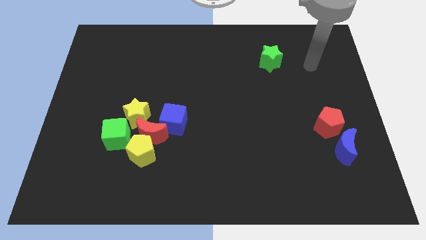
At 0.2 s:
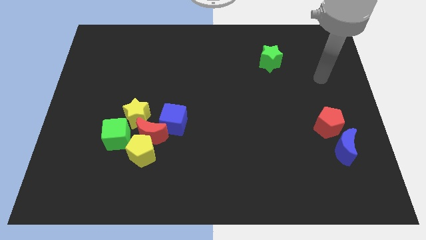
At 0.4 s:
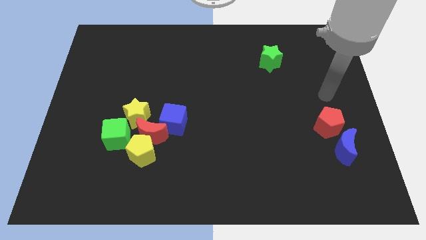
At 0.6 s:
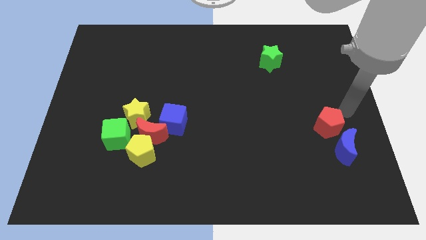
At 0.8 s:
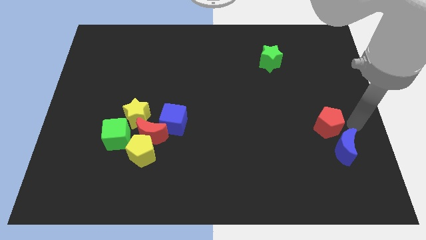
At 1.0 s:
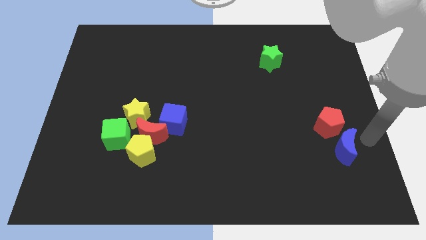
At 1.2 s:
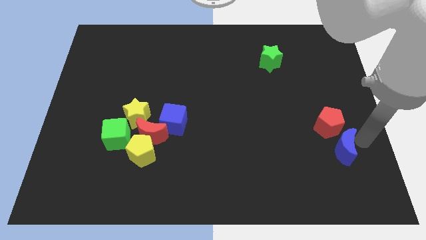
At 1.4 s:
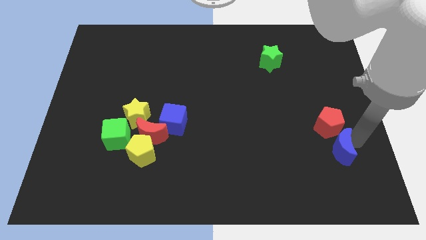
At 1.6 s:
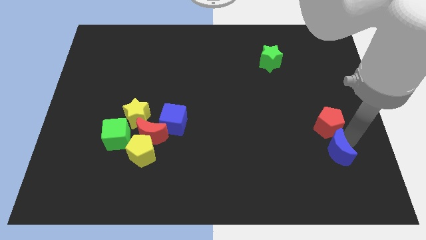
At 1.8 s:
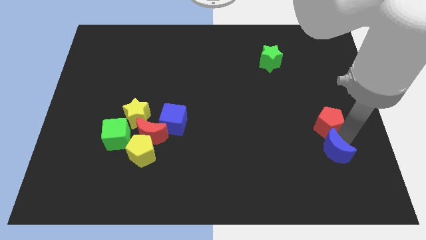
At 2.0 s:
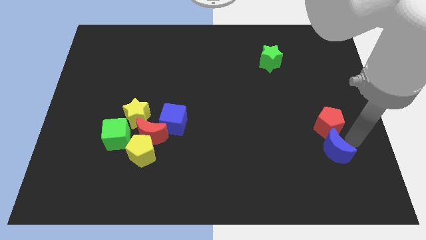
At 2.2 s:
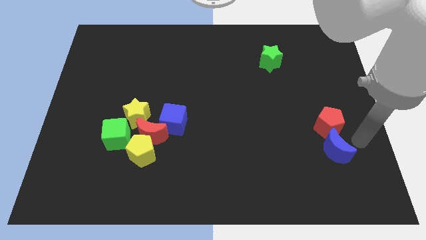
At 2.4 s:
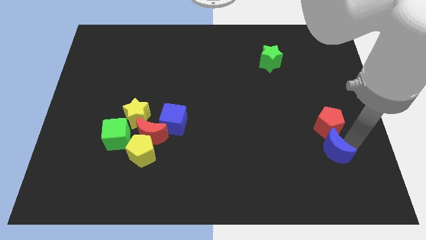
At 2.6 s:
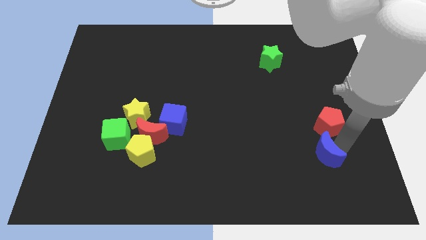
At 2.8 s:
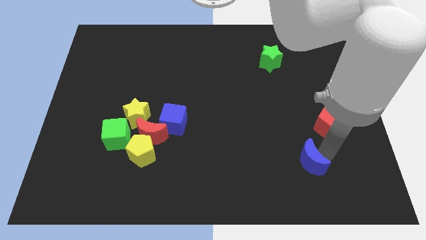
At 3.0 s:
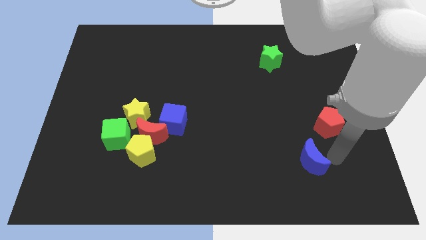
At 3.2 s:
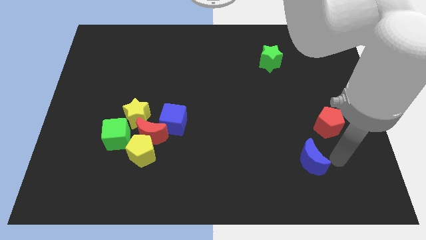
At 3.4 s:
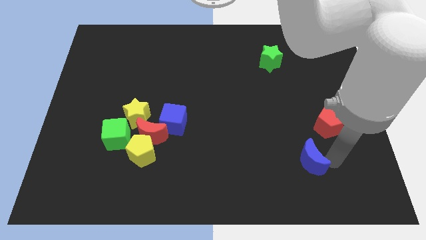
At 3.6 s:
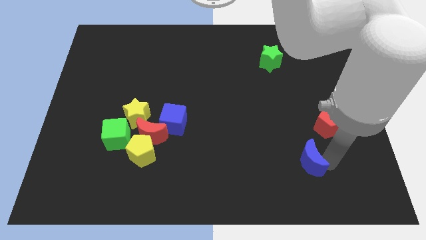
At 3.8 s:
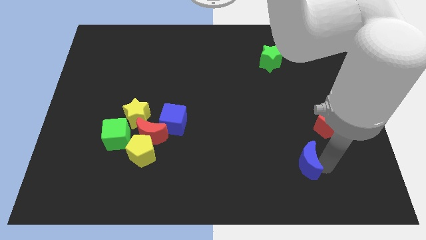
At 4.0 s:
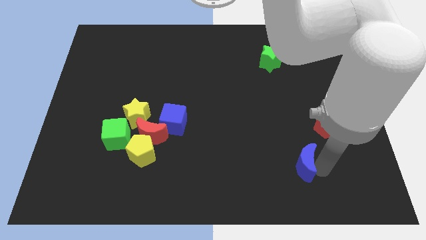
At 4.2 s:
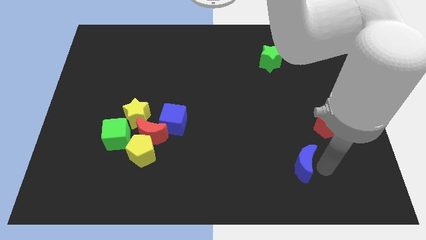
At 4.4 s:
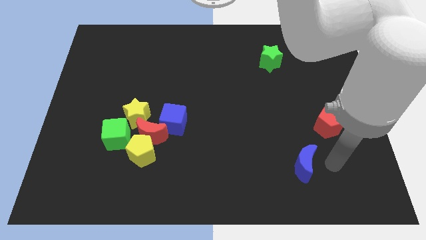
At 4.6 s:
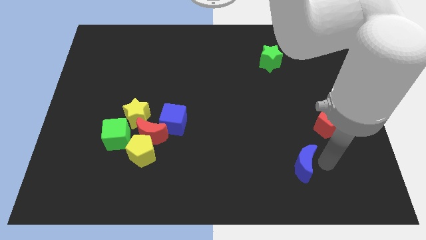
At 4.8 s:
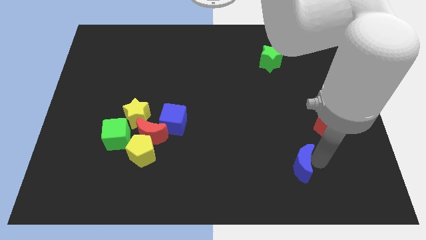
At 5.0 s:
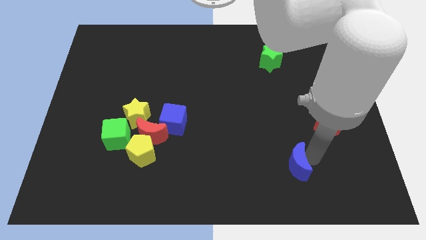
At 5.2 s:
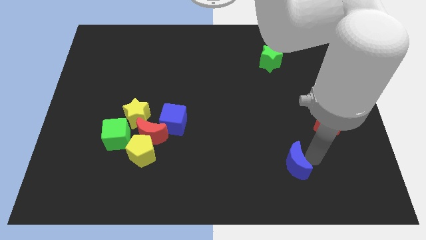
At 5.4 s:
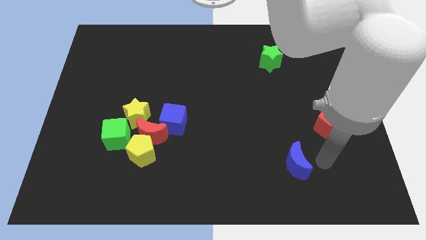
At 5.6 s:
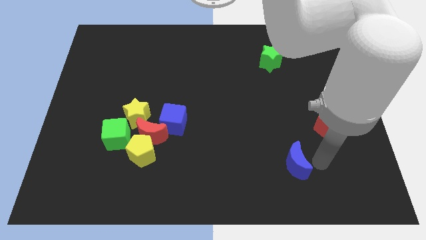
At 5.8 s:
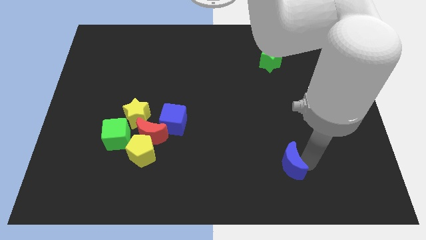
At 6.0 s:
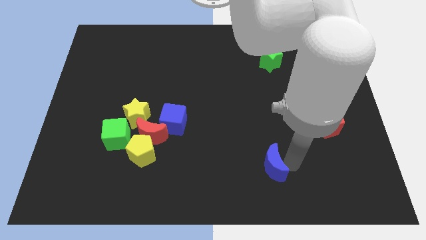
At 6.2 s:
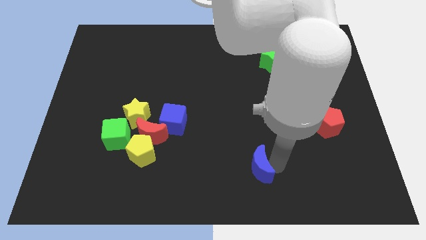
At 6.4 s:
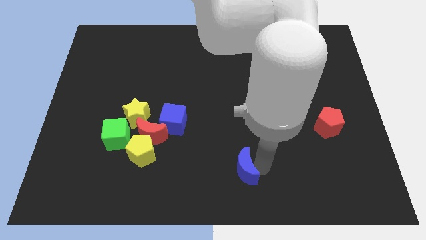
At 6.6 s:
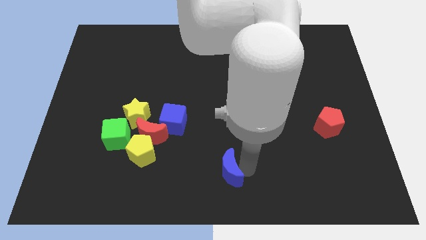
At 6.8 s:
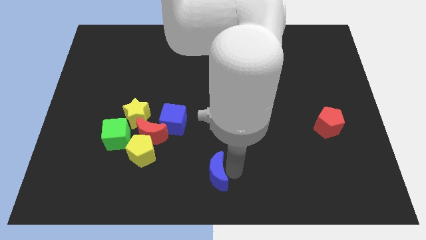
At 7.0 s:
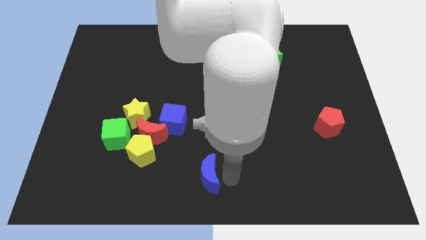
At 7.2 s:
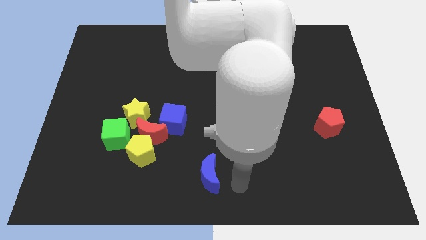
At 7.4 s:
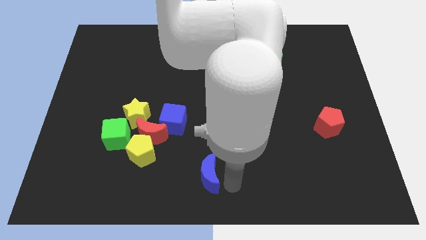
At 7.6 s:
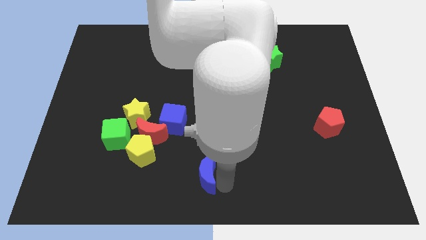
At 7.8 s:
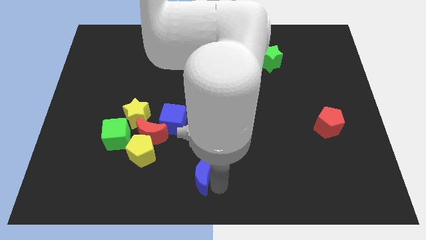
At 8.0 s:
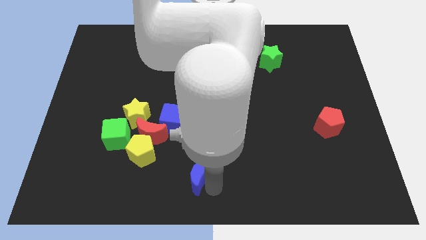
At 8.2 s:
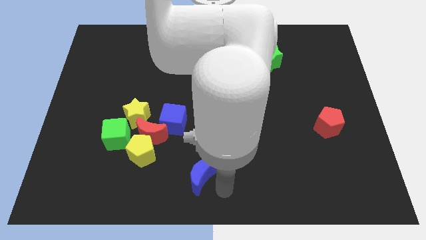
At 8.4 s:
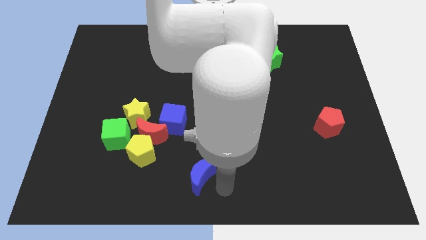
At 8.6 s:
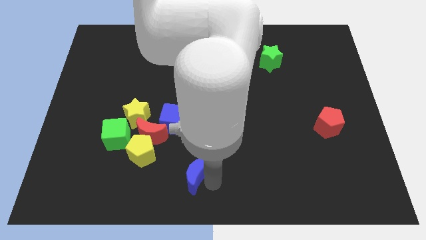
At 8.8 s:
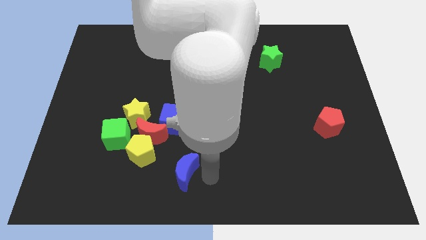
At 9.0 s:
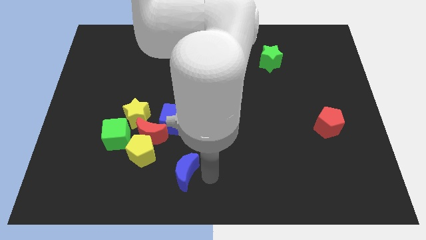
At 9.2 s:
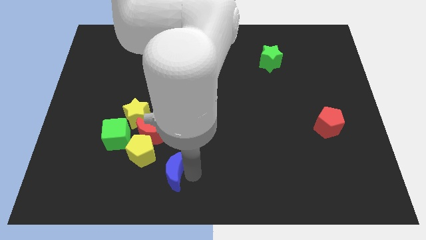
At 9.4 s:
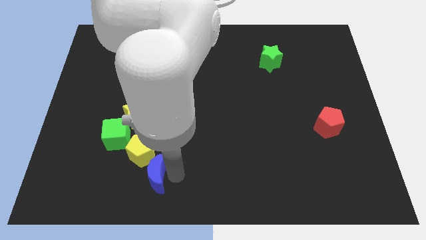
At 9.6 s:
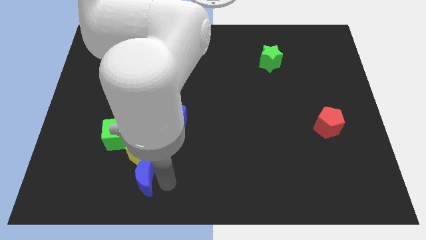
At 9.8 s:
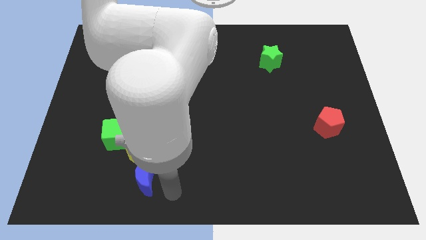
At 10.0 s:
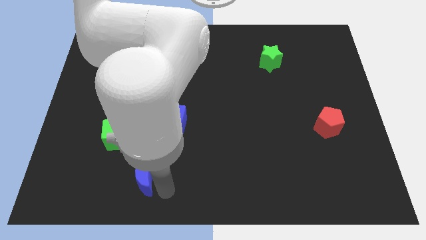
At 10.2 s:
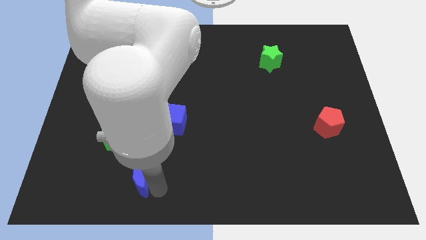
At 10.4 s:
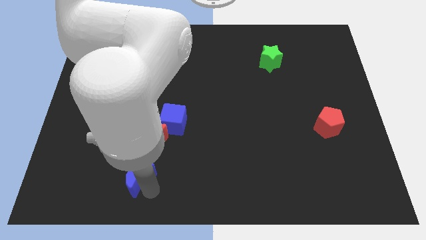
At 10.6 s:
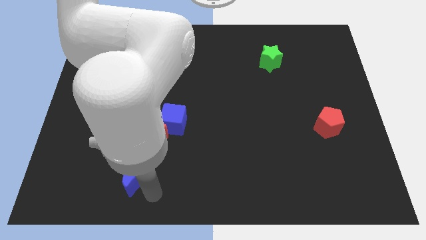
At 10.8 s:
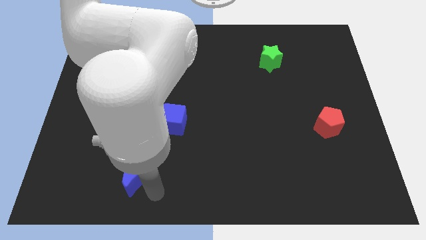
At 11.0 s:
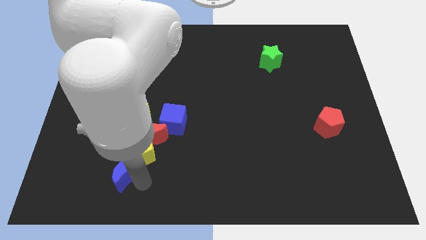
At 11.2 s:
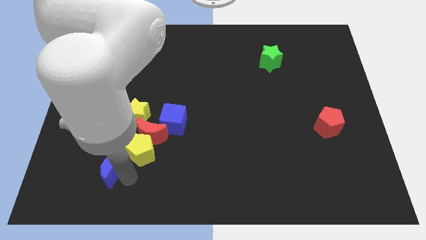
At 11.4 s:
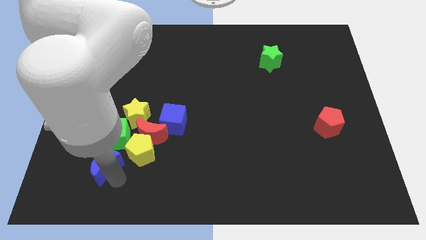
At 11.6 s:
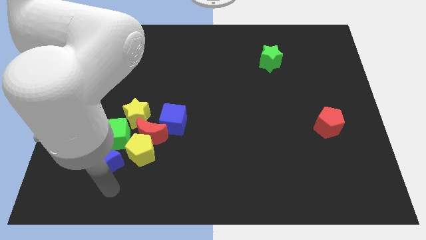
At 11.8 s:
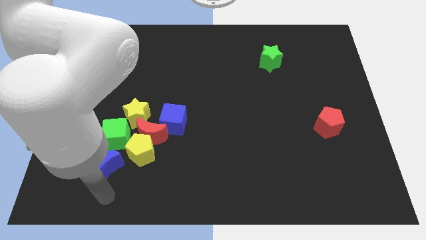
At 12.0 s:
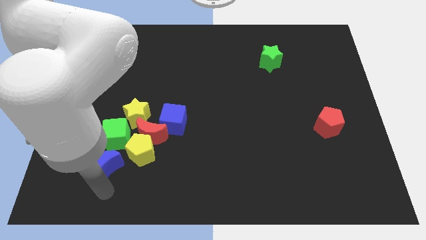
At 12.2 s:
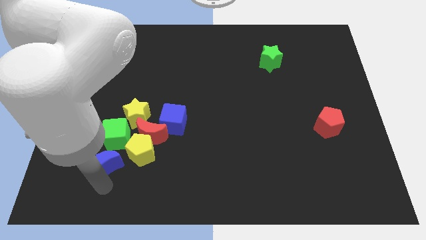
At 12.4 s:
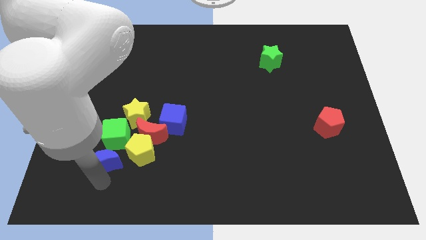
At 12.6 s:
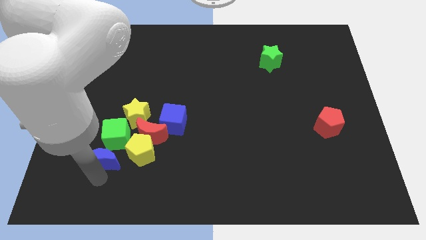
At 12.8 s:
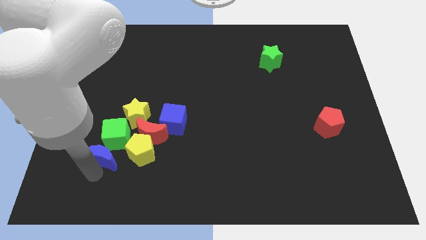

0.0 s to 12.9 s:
put the blue moon towards the green cube

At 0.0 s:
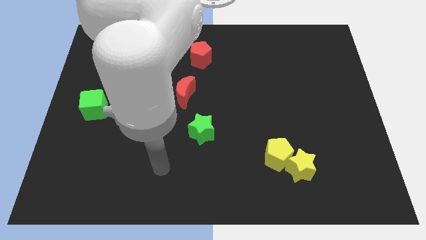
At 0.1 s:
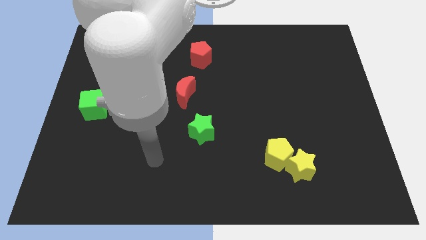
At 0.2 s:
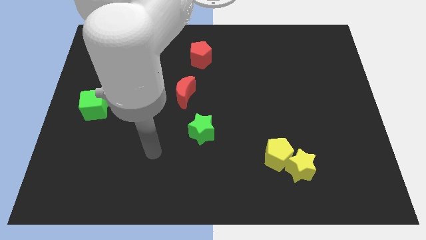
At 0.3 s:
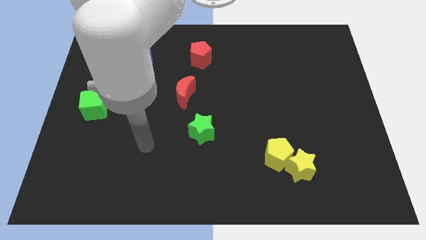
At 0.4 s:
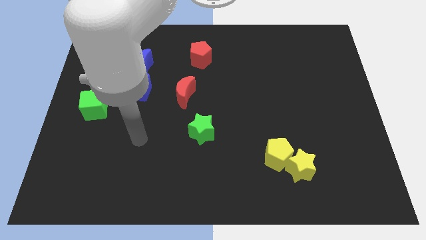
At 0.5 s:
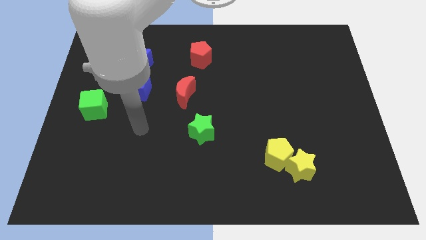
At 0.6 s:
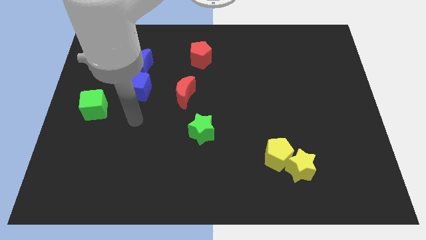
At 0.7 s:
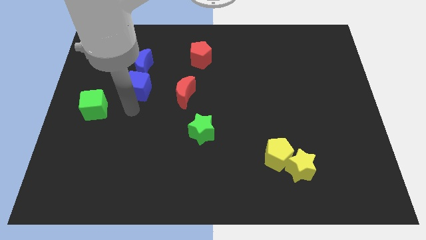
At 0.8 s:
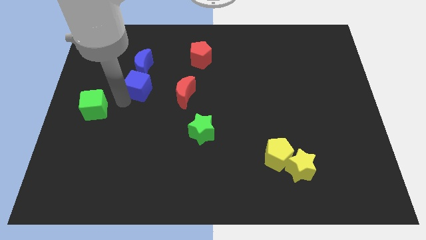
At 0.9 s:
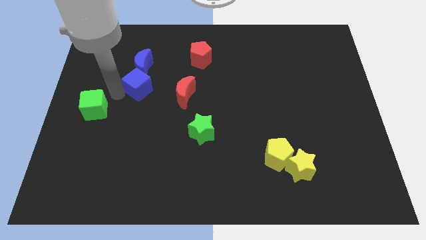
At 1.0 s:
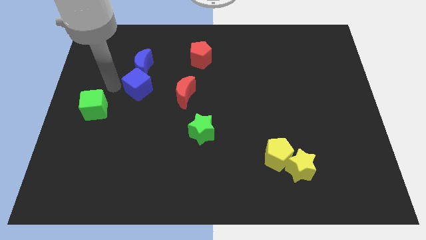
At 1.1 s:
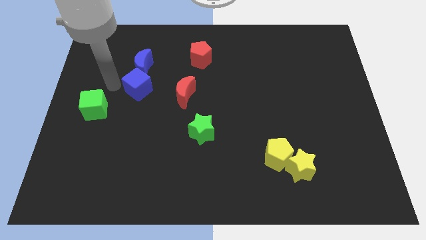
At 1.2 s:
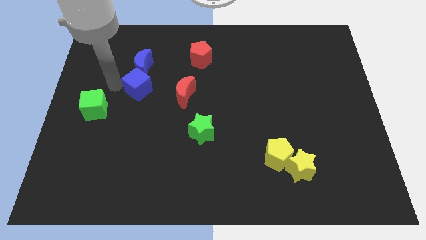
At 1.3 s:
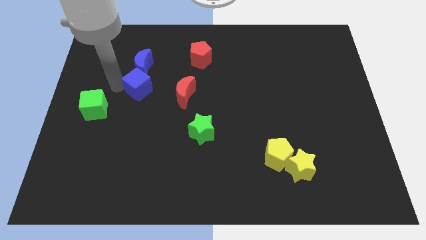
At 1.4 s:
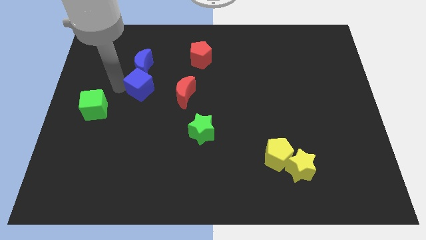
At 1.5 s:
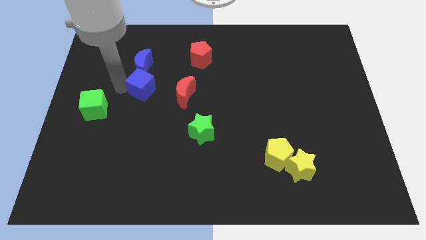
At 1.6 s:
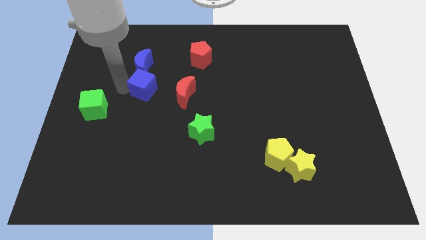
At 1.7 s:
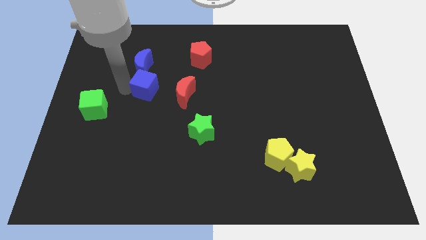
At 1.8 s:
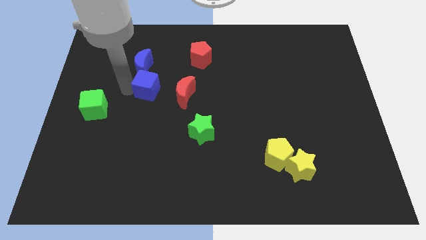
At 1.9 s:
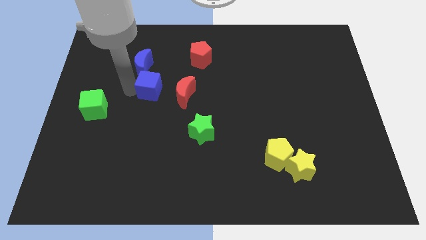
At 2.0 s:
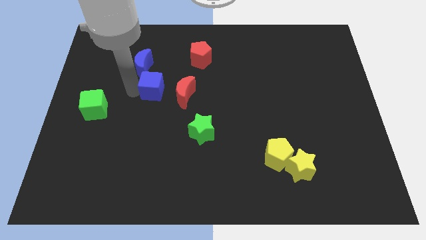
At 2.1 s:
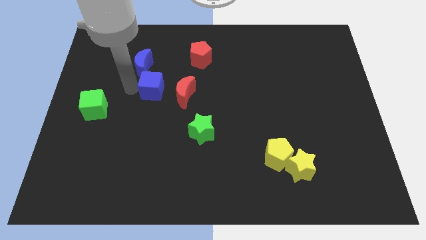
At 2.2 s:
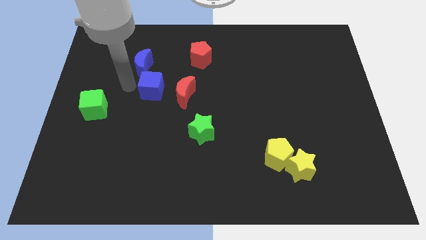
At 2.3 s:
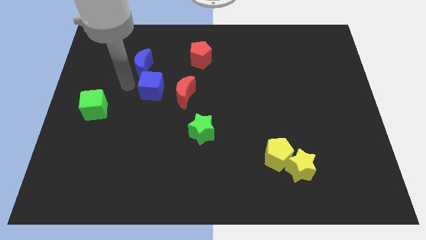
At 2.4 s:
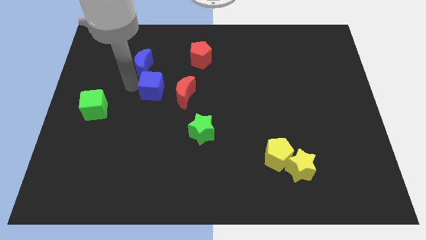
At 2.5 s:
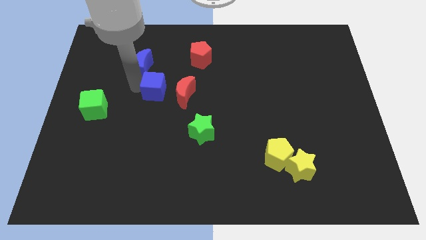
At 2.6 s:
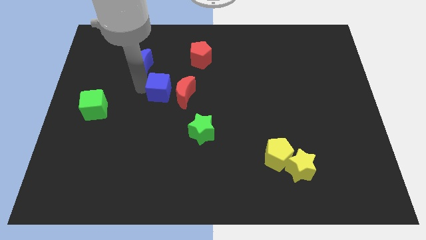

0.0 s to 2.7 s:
move the blue cube close to the red moon
